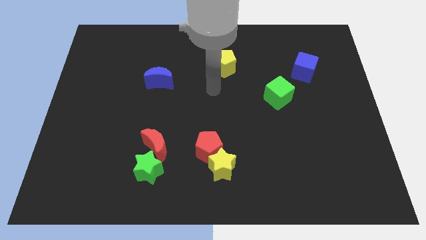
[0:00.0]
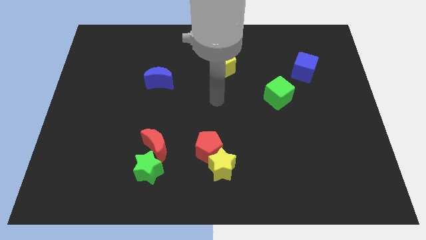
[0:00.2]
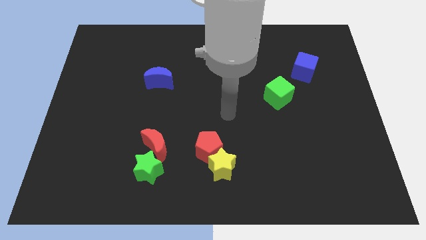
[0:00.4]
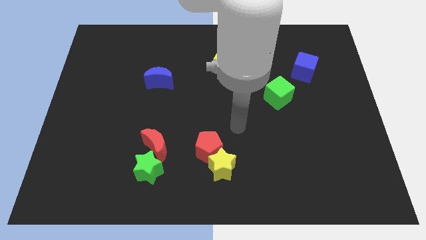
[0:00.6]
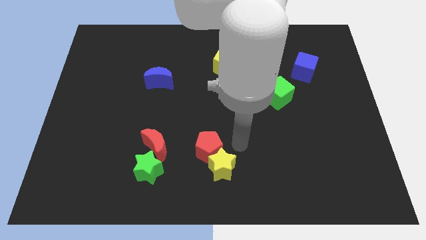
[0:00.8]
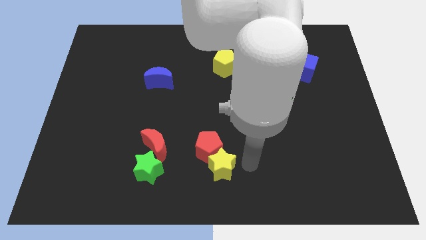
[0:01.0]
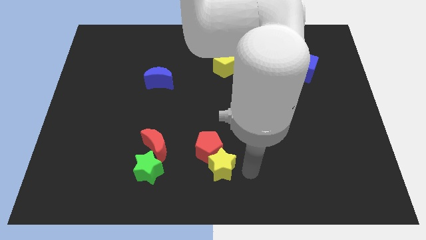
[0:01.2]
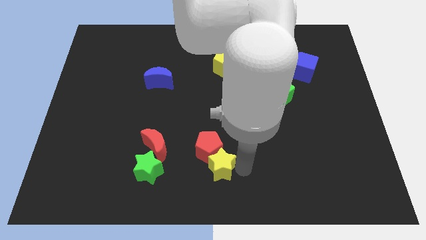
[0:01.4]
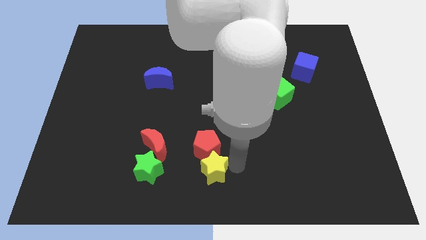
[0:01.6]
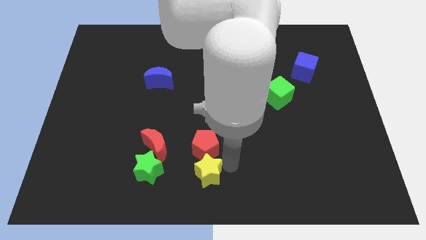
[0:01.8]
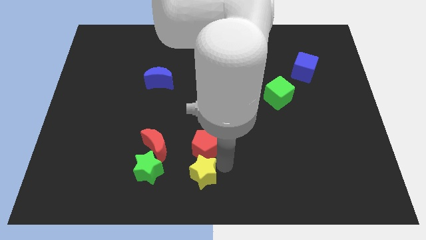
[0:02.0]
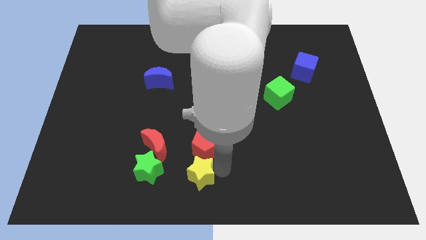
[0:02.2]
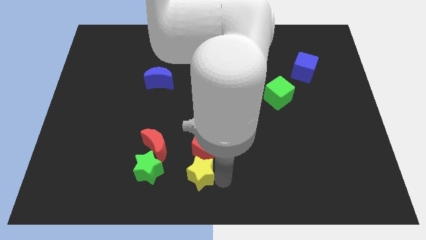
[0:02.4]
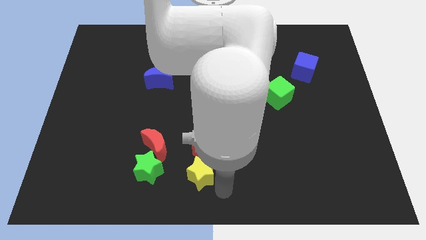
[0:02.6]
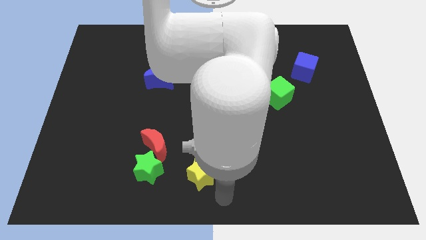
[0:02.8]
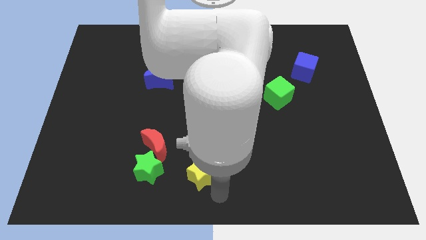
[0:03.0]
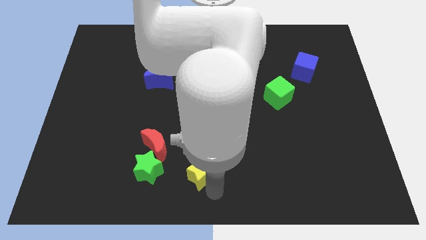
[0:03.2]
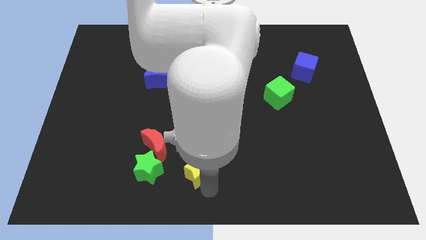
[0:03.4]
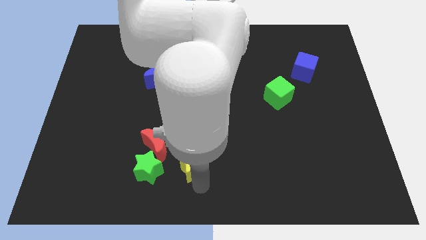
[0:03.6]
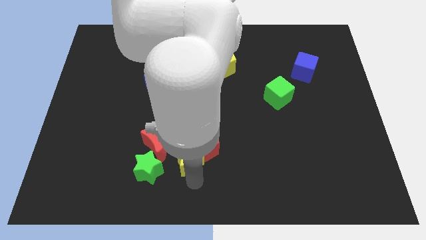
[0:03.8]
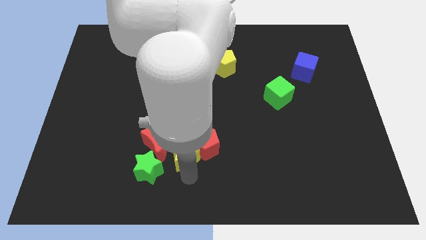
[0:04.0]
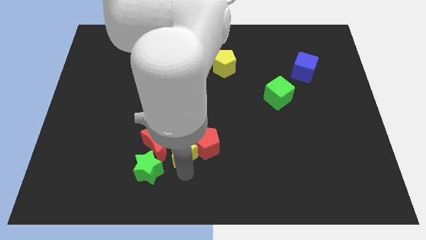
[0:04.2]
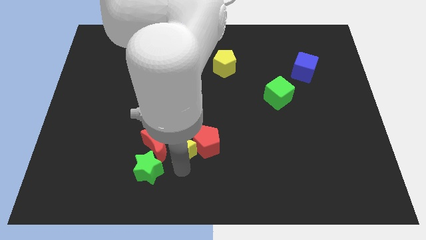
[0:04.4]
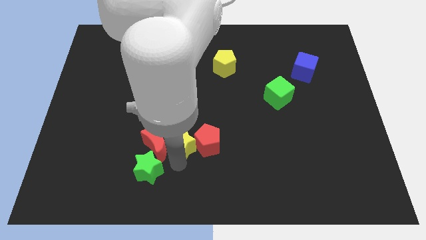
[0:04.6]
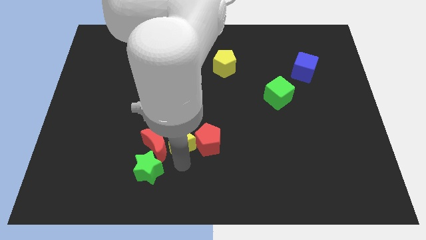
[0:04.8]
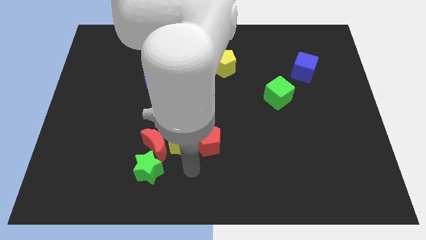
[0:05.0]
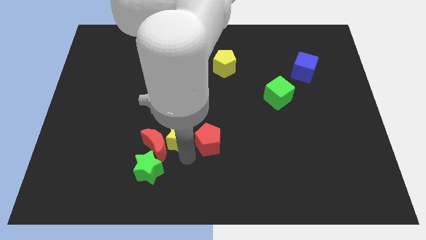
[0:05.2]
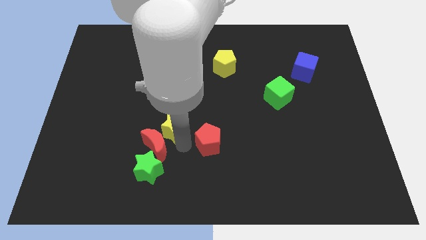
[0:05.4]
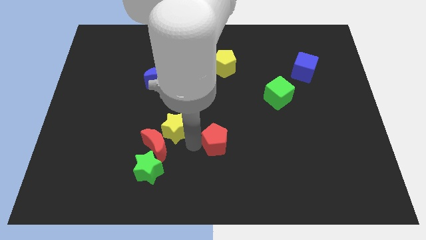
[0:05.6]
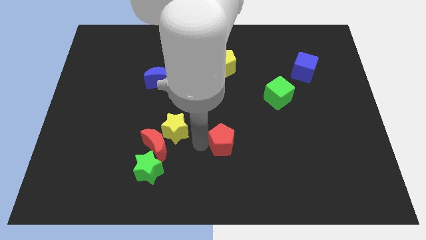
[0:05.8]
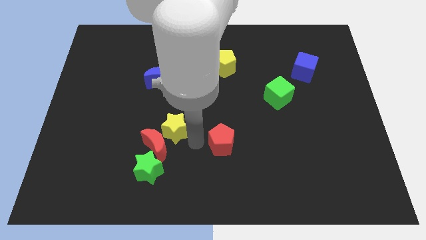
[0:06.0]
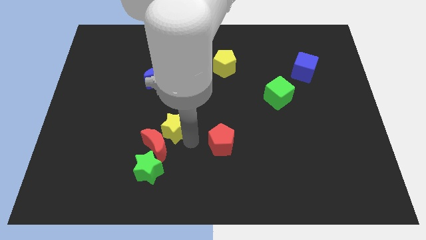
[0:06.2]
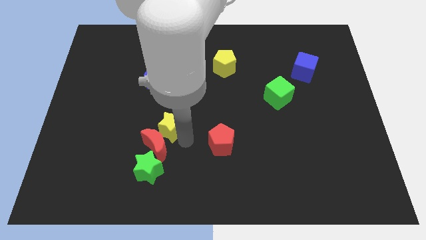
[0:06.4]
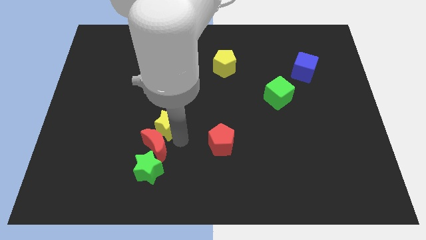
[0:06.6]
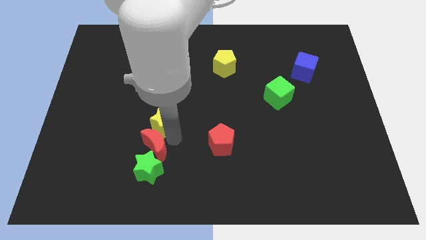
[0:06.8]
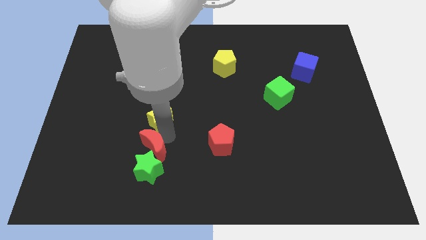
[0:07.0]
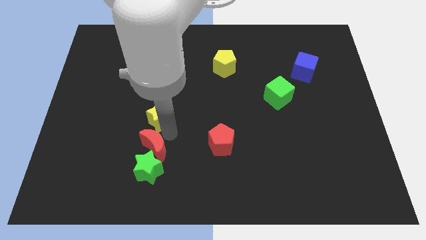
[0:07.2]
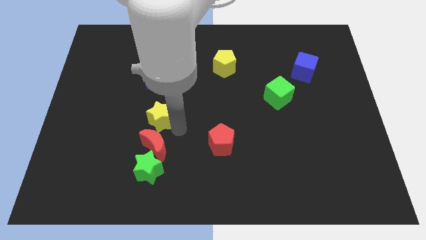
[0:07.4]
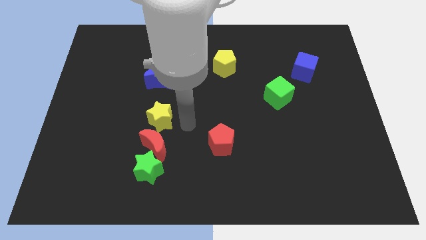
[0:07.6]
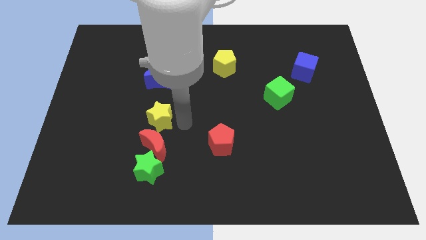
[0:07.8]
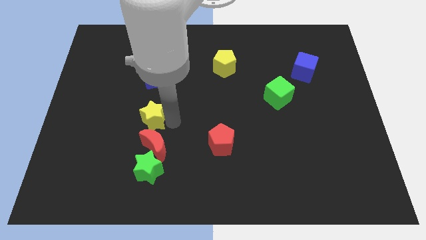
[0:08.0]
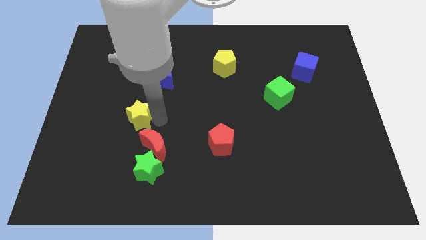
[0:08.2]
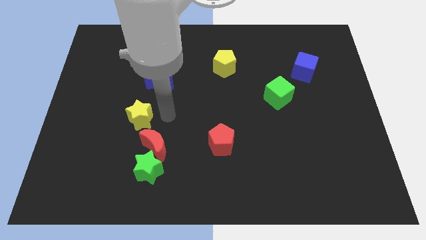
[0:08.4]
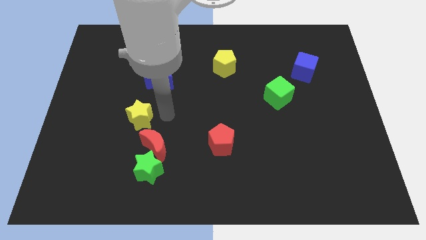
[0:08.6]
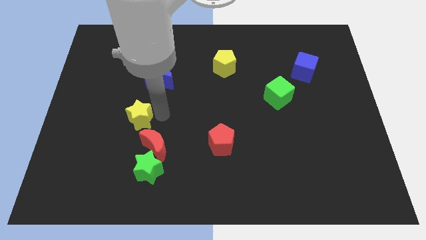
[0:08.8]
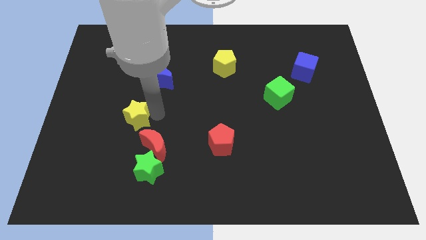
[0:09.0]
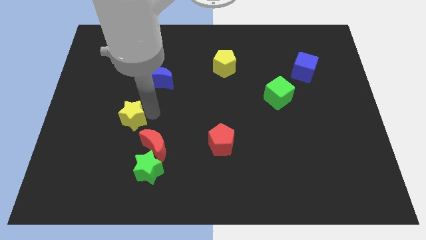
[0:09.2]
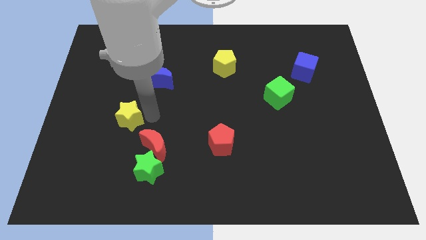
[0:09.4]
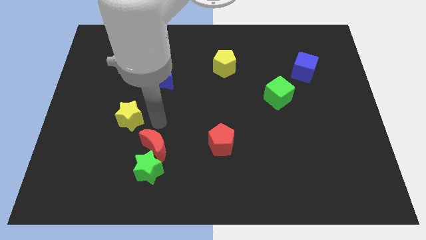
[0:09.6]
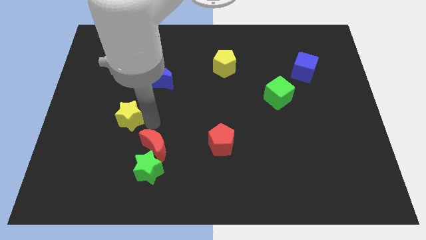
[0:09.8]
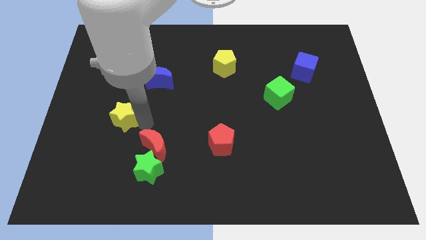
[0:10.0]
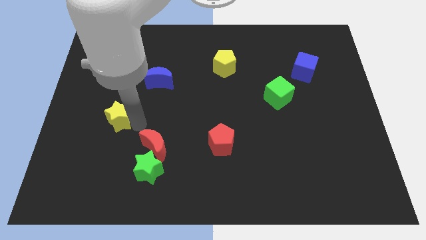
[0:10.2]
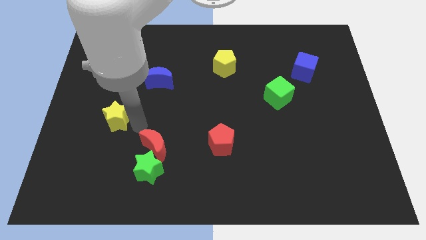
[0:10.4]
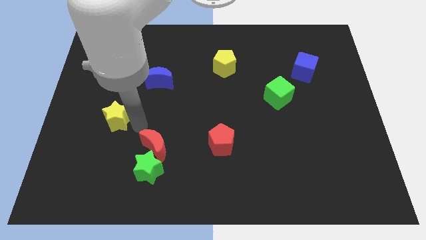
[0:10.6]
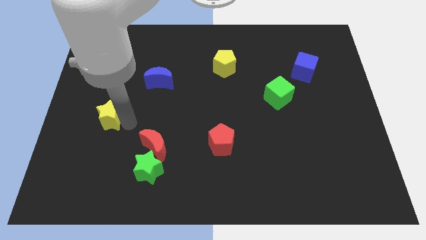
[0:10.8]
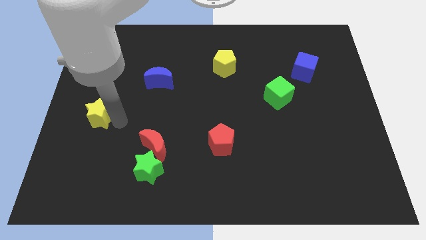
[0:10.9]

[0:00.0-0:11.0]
push the yellow star to the left side of the board

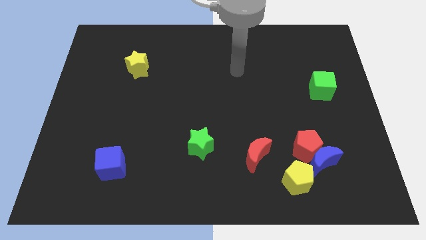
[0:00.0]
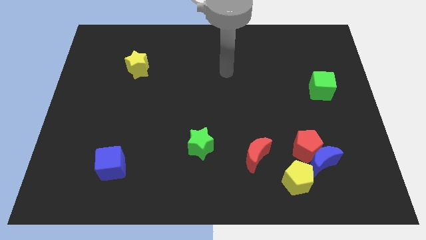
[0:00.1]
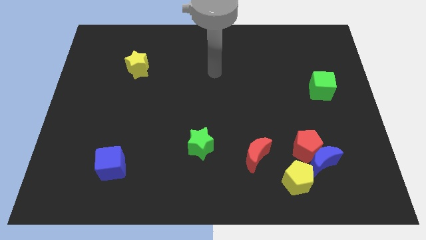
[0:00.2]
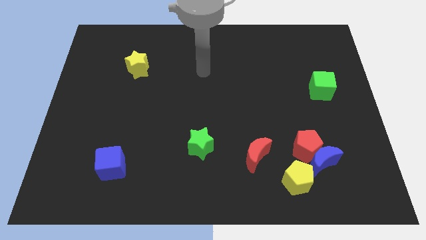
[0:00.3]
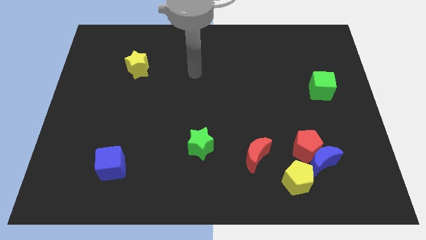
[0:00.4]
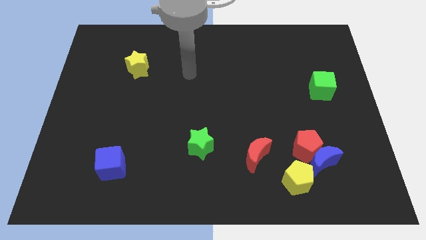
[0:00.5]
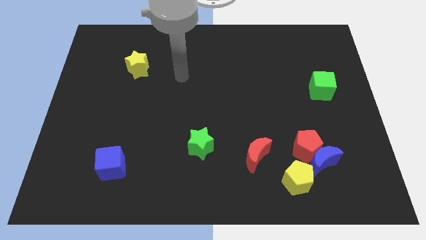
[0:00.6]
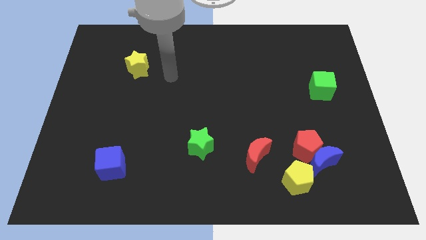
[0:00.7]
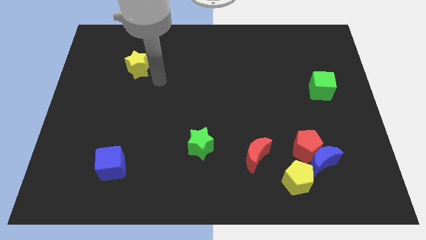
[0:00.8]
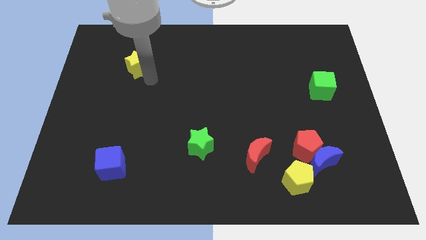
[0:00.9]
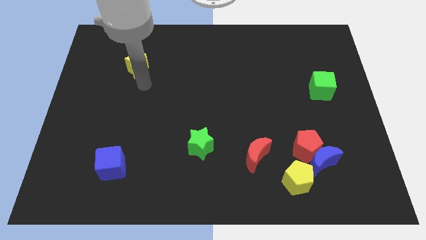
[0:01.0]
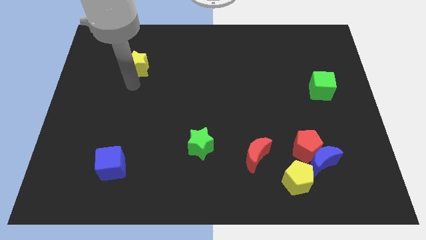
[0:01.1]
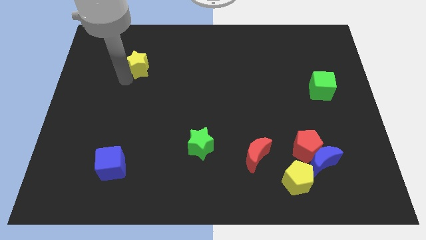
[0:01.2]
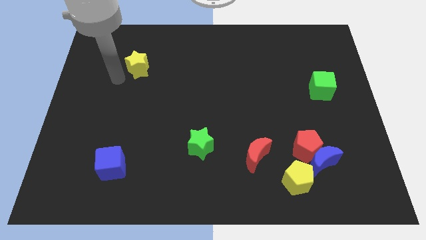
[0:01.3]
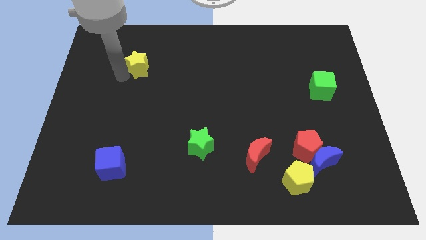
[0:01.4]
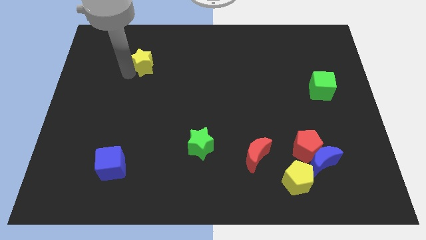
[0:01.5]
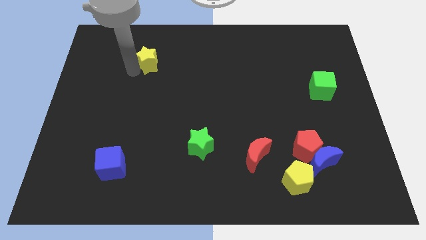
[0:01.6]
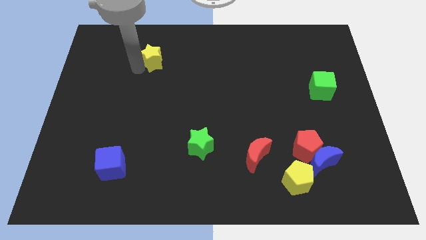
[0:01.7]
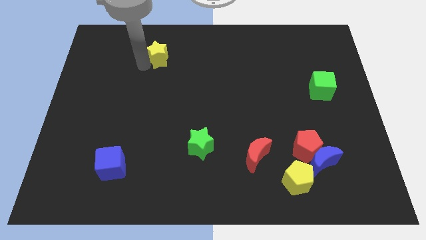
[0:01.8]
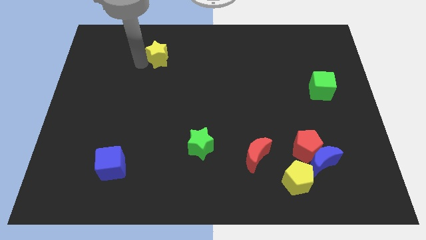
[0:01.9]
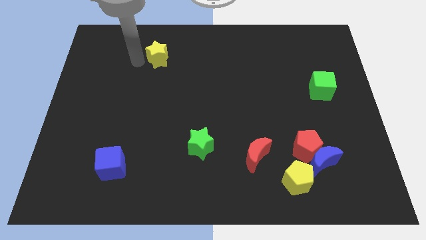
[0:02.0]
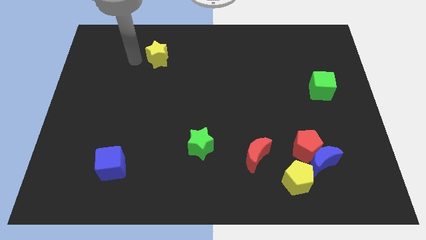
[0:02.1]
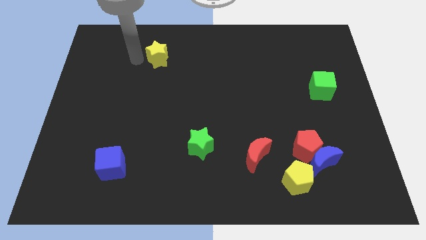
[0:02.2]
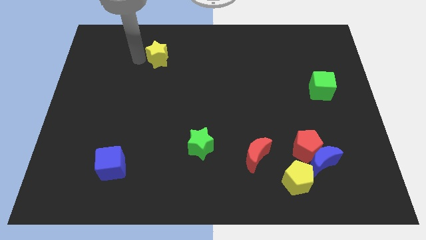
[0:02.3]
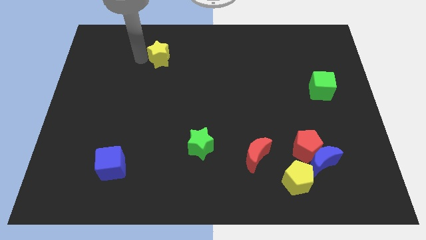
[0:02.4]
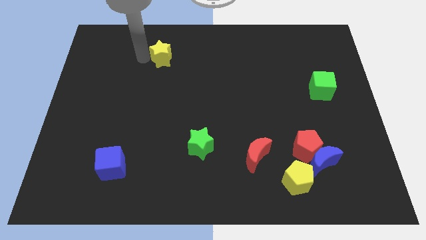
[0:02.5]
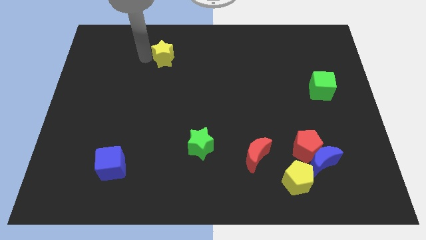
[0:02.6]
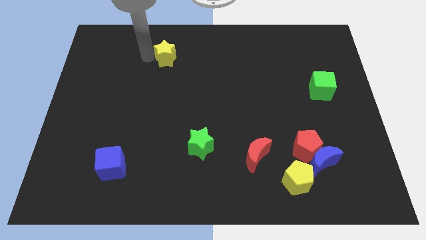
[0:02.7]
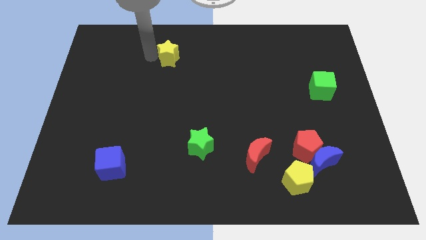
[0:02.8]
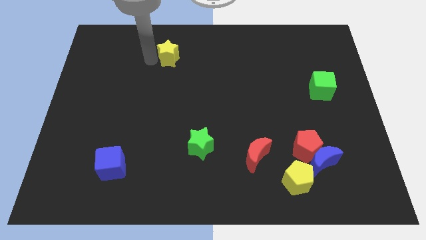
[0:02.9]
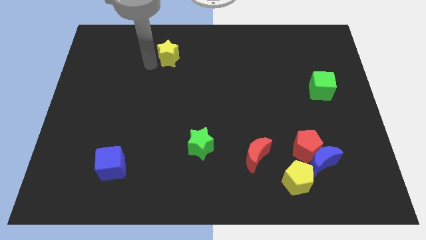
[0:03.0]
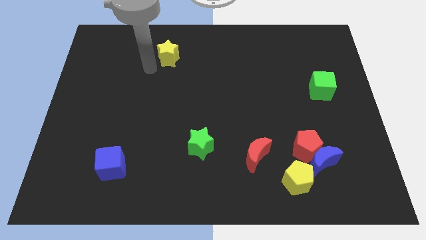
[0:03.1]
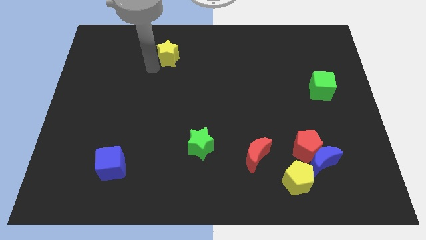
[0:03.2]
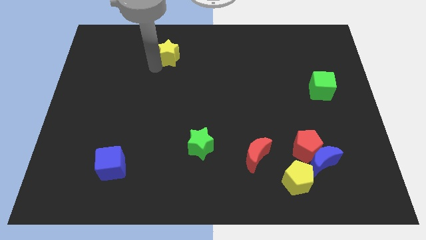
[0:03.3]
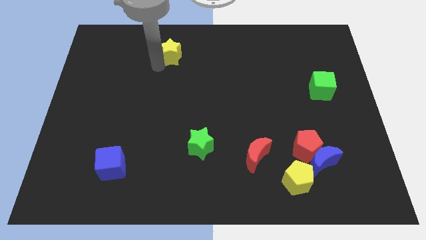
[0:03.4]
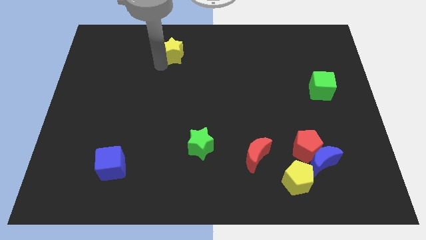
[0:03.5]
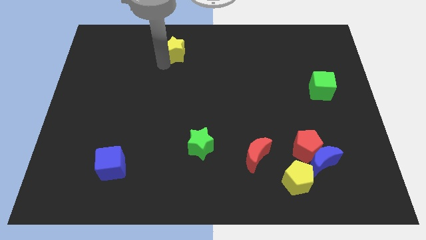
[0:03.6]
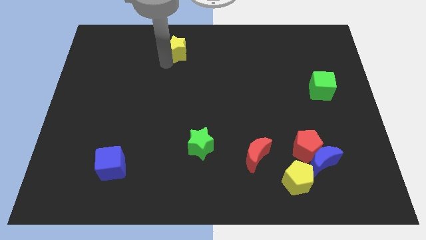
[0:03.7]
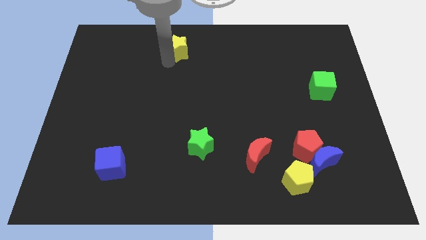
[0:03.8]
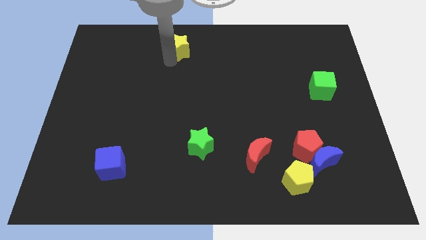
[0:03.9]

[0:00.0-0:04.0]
push the yellow star to the top side
